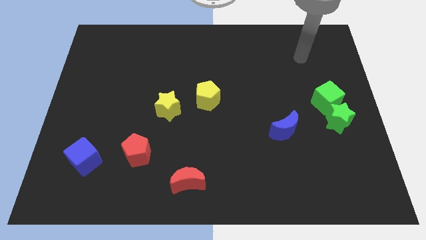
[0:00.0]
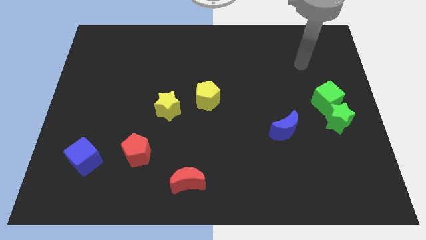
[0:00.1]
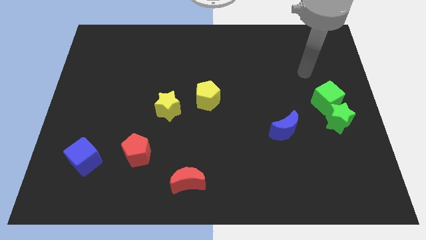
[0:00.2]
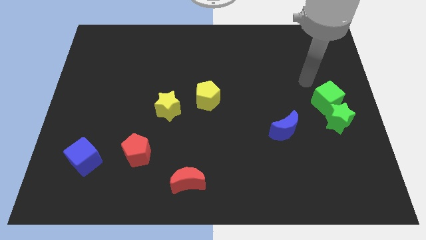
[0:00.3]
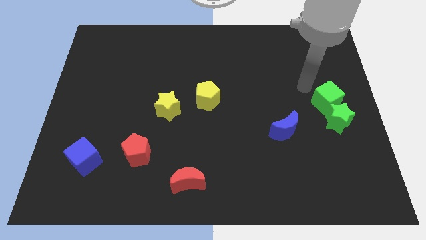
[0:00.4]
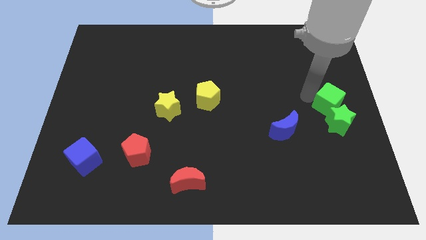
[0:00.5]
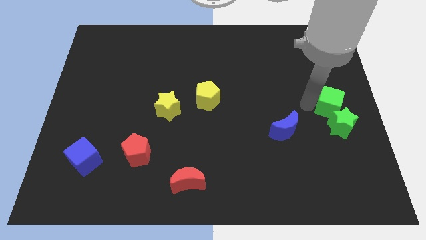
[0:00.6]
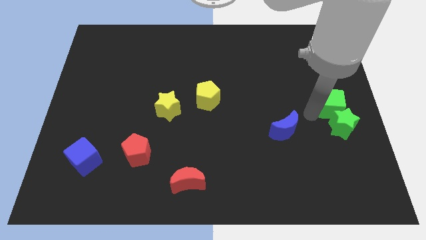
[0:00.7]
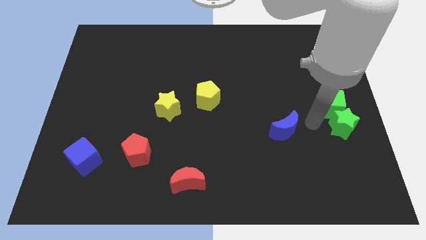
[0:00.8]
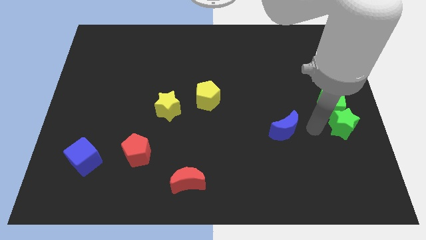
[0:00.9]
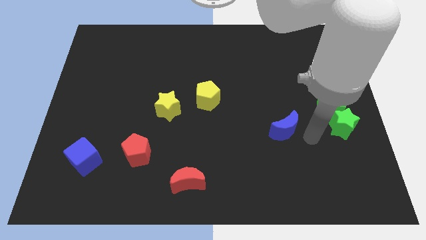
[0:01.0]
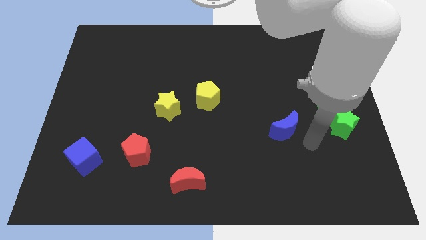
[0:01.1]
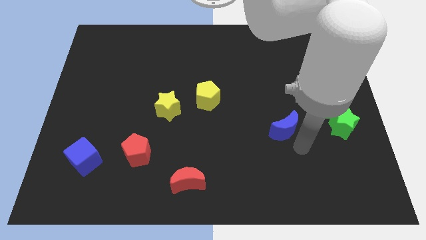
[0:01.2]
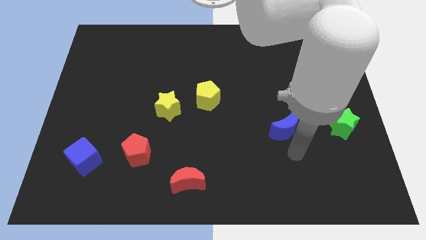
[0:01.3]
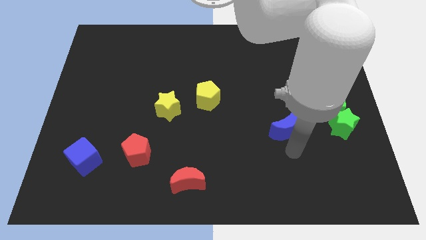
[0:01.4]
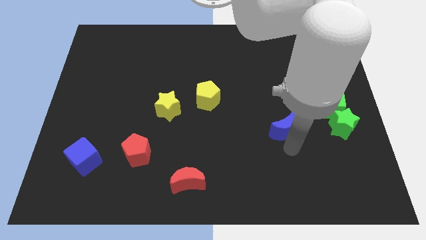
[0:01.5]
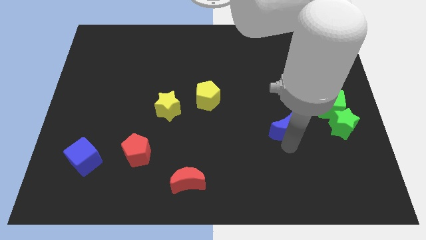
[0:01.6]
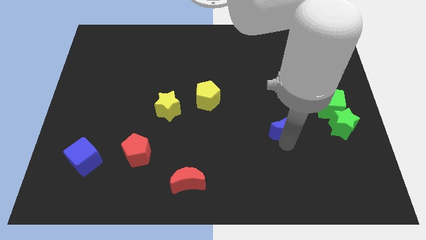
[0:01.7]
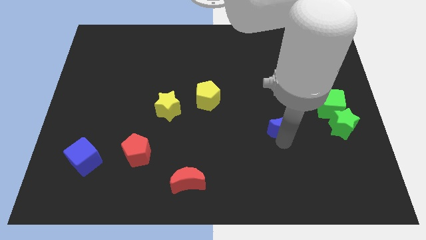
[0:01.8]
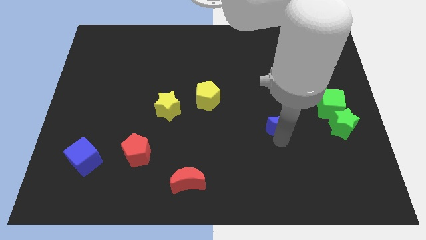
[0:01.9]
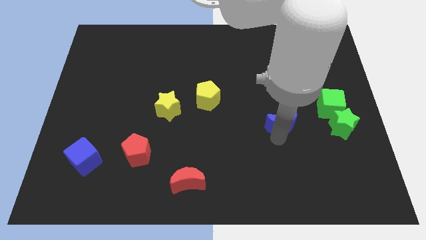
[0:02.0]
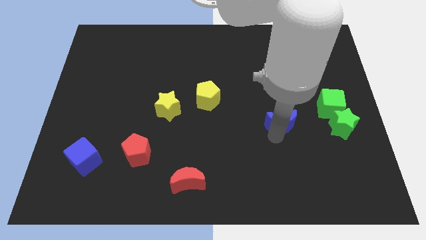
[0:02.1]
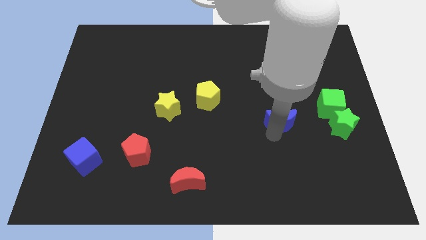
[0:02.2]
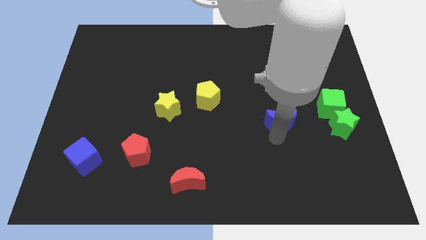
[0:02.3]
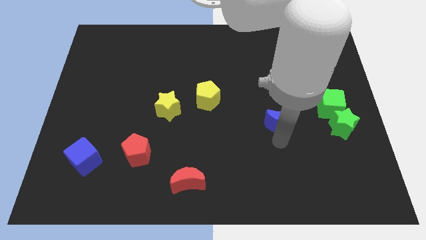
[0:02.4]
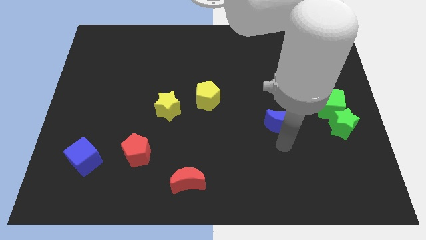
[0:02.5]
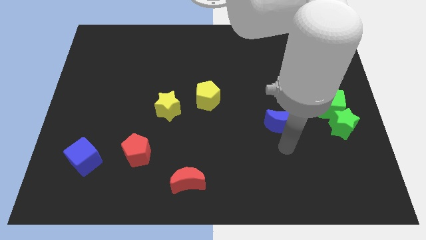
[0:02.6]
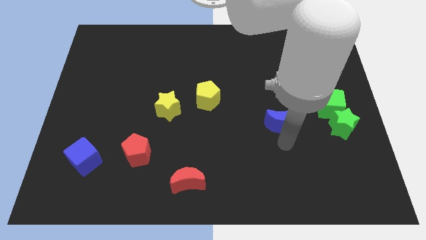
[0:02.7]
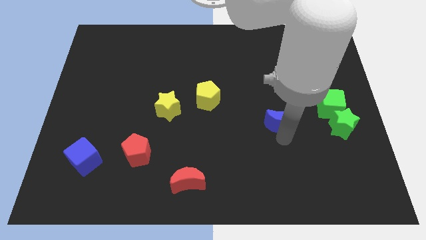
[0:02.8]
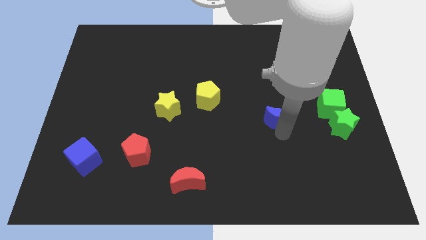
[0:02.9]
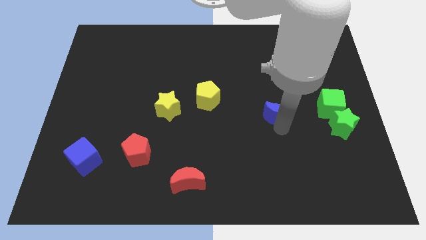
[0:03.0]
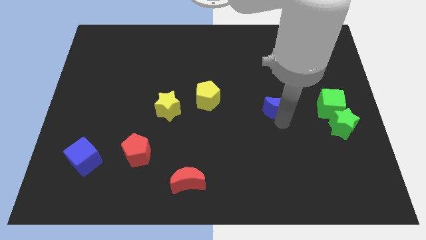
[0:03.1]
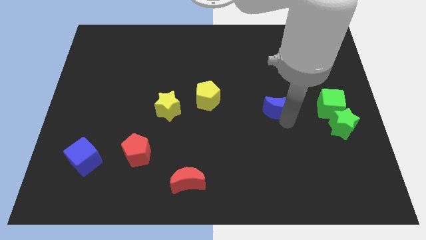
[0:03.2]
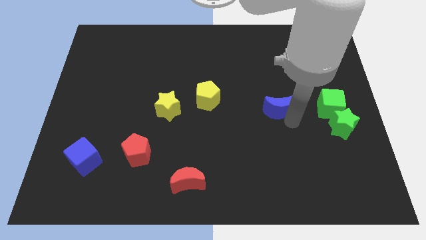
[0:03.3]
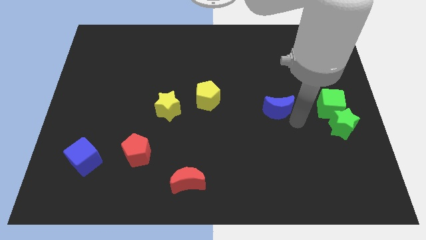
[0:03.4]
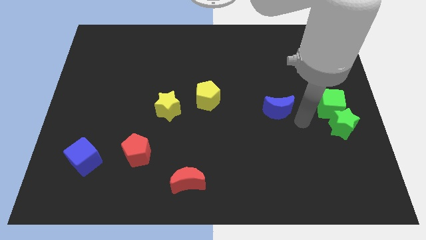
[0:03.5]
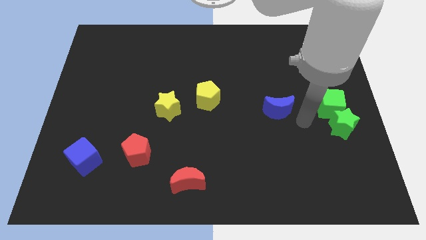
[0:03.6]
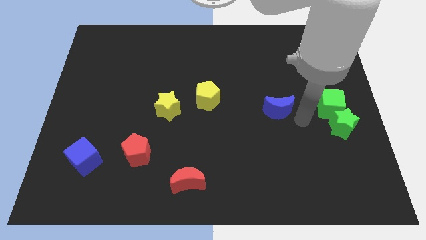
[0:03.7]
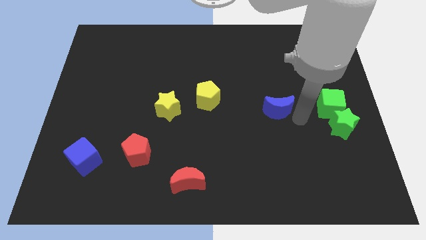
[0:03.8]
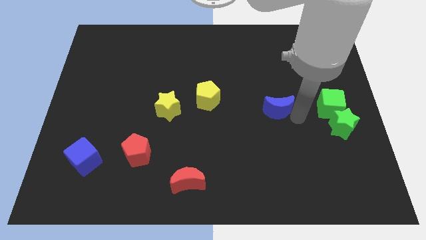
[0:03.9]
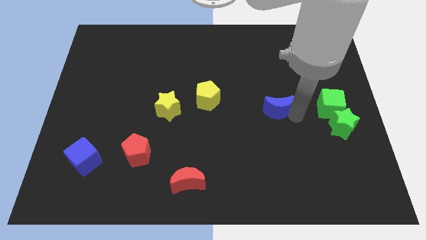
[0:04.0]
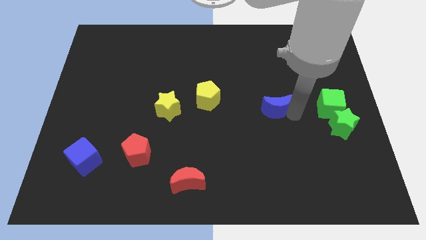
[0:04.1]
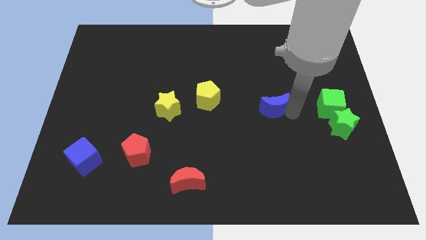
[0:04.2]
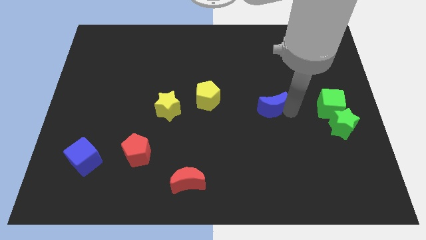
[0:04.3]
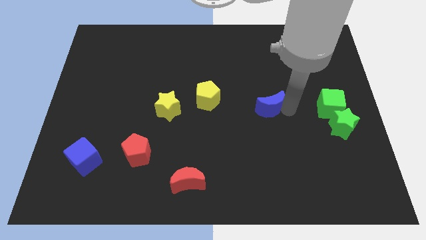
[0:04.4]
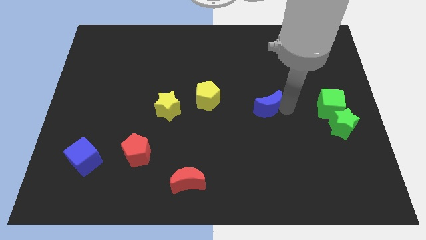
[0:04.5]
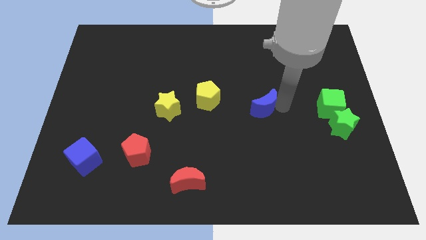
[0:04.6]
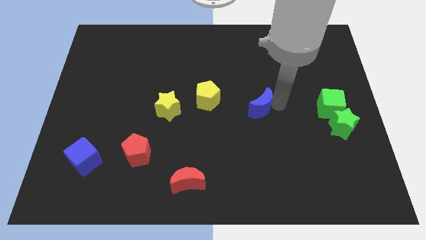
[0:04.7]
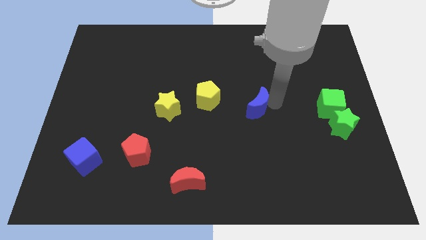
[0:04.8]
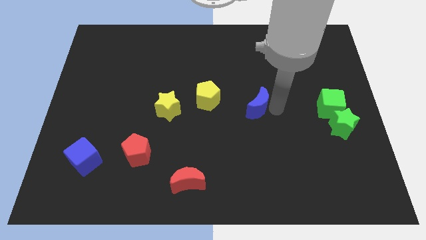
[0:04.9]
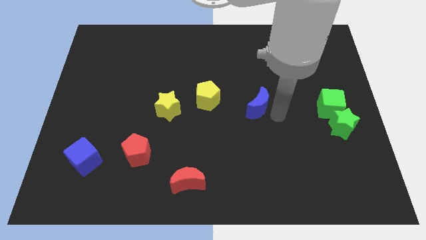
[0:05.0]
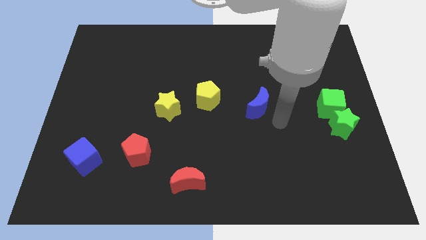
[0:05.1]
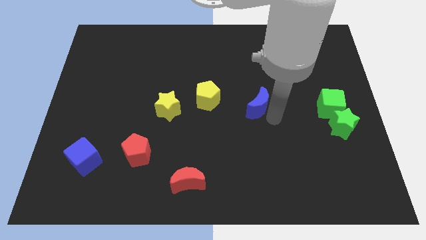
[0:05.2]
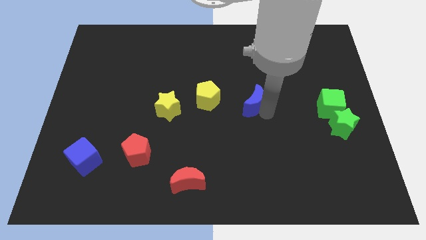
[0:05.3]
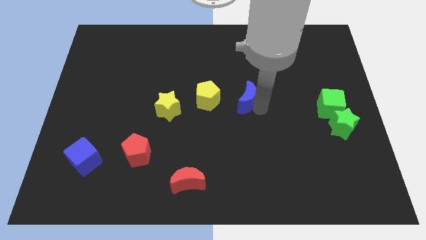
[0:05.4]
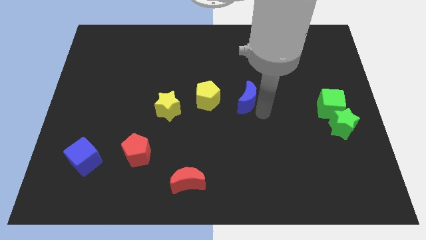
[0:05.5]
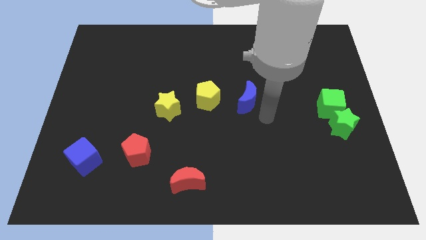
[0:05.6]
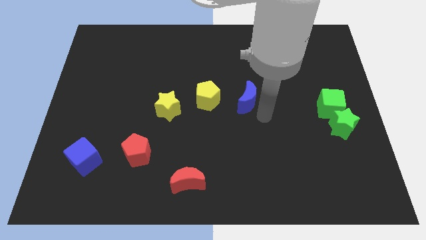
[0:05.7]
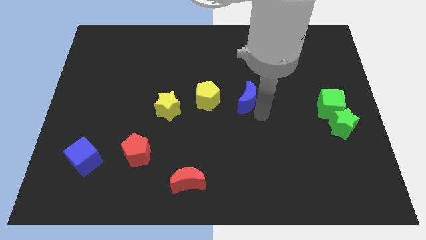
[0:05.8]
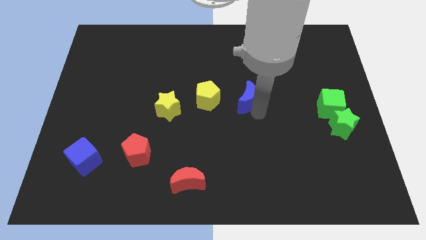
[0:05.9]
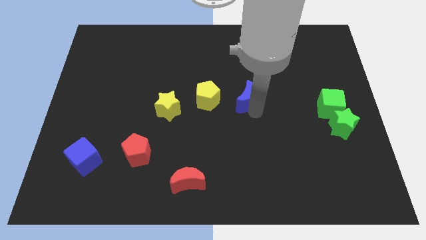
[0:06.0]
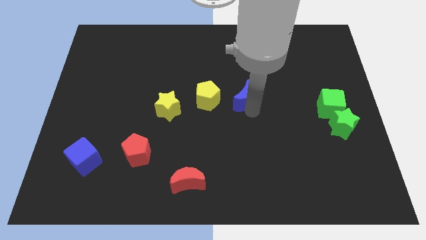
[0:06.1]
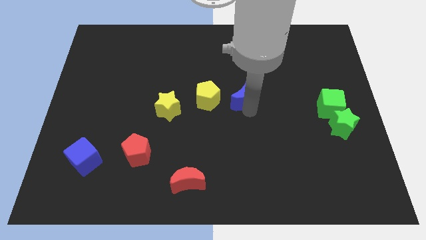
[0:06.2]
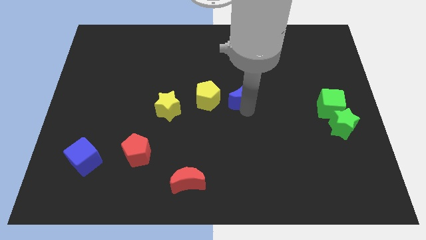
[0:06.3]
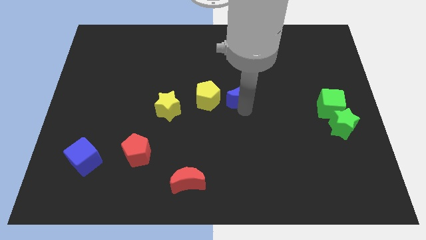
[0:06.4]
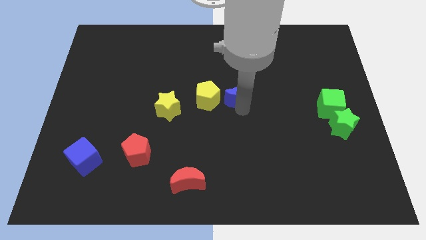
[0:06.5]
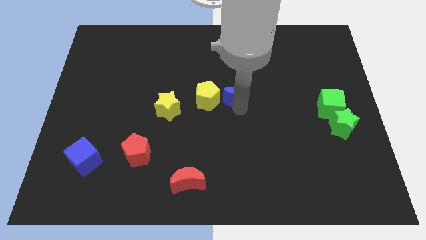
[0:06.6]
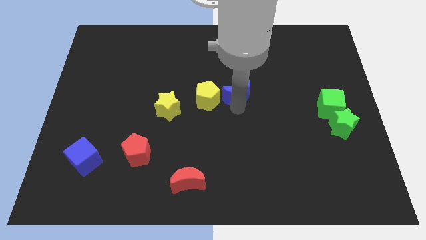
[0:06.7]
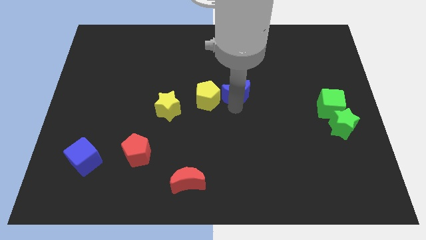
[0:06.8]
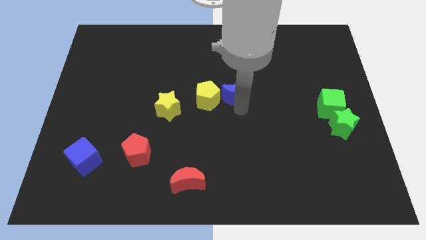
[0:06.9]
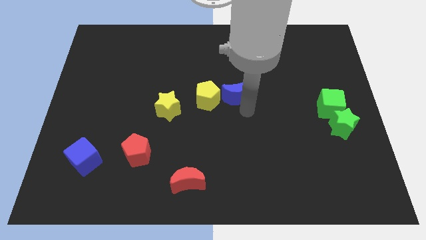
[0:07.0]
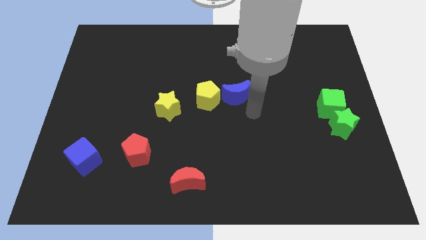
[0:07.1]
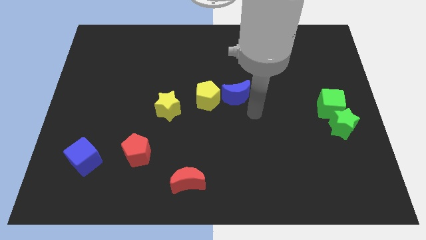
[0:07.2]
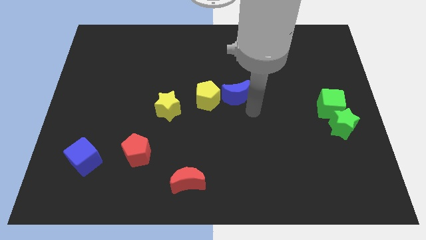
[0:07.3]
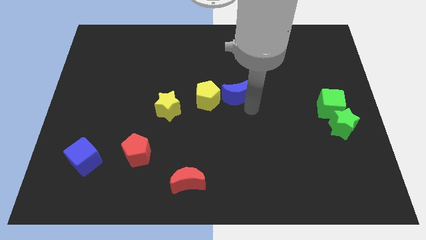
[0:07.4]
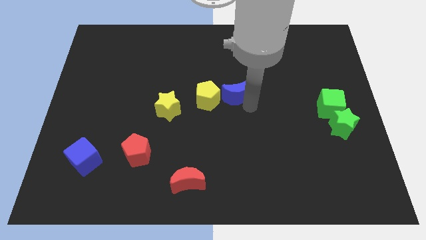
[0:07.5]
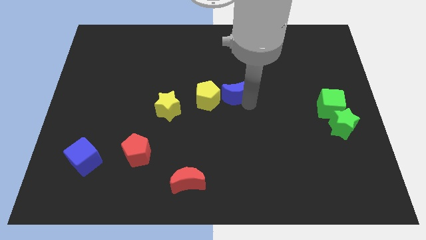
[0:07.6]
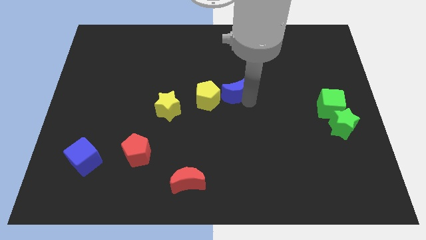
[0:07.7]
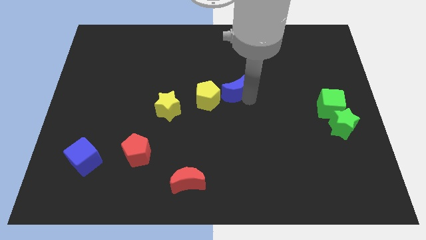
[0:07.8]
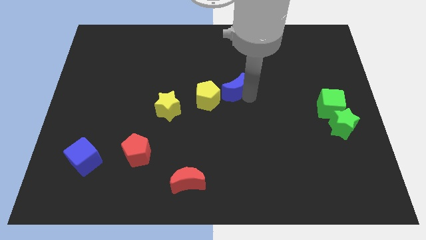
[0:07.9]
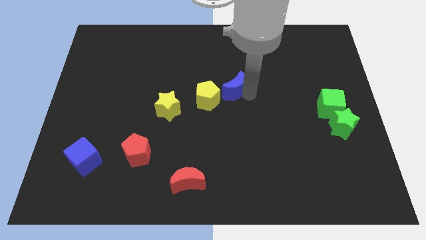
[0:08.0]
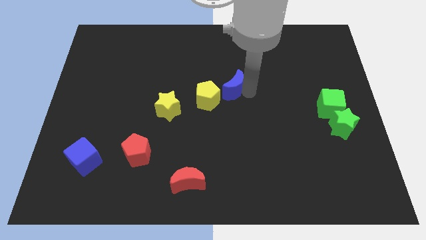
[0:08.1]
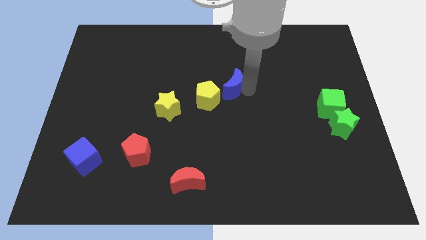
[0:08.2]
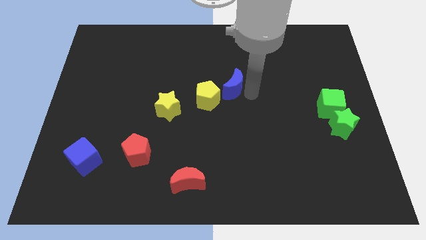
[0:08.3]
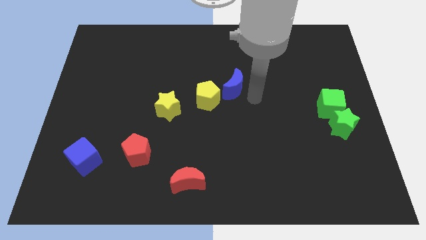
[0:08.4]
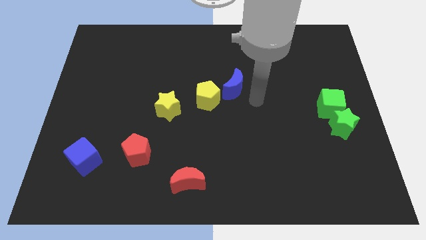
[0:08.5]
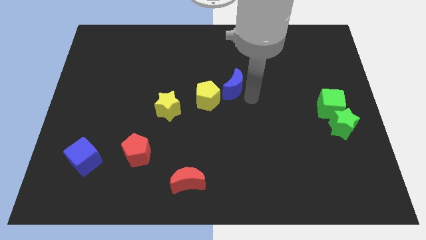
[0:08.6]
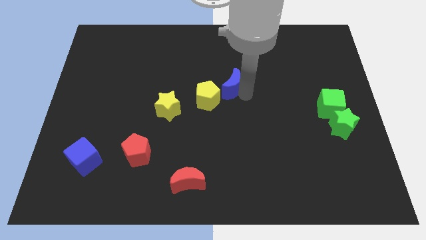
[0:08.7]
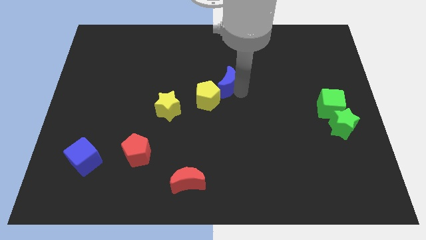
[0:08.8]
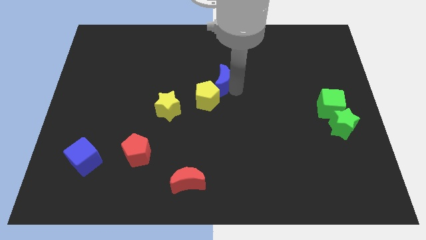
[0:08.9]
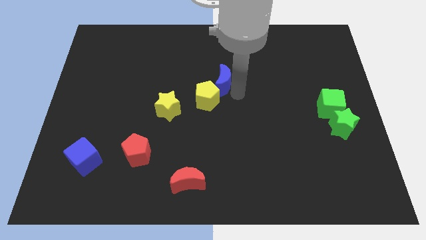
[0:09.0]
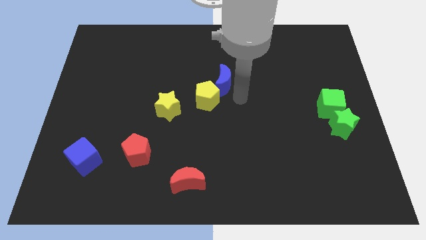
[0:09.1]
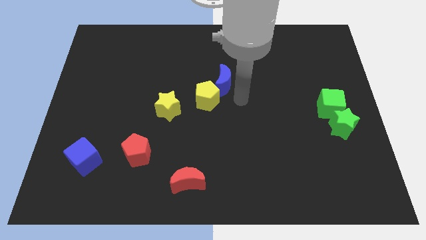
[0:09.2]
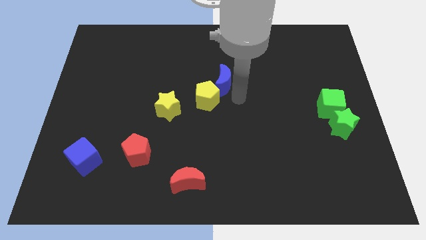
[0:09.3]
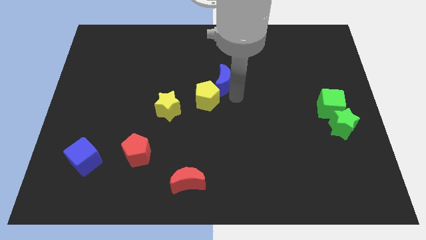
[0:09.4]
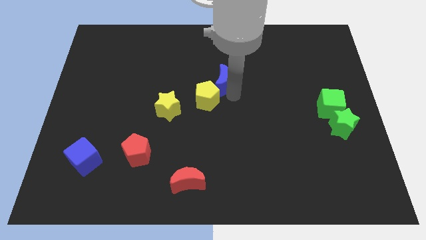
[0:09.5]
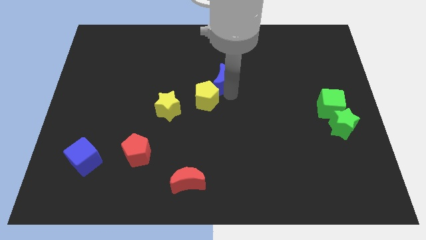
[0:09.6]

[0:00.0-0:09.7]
slide the blue moon diagonally upwards and to the left
